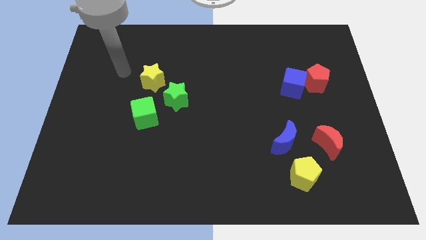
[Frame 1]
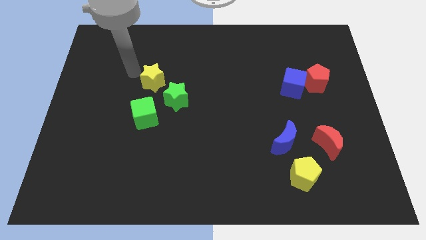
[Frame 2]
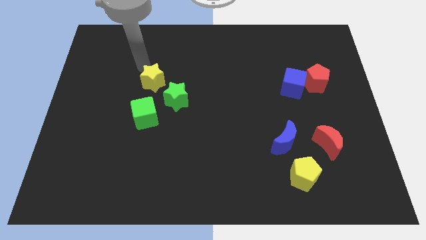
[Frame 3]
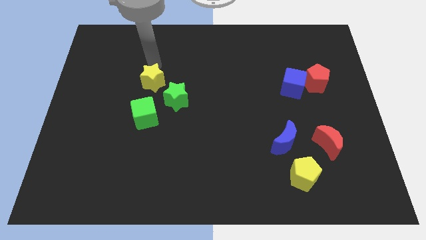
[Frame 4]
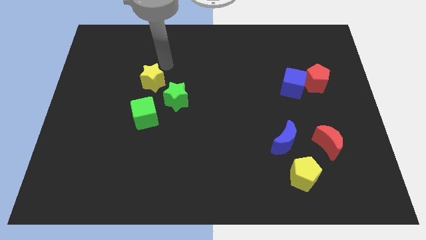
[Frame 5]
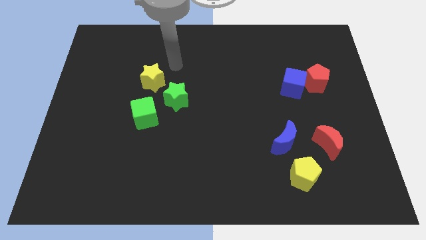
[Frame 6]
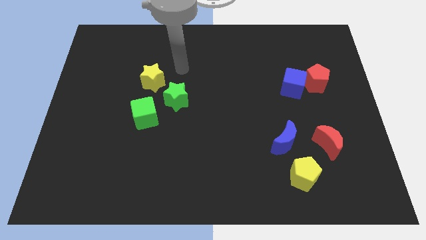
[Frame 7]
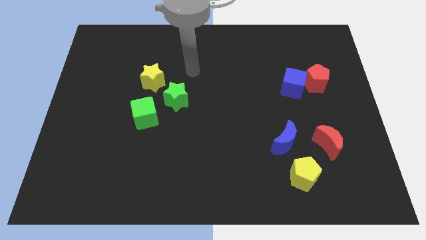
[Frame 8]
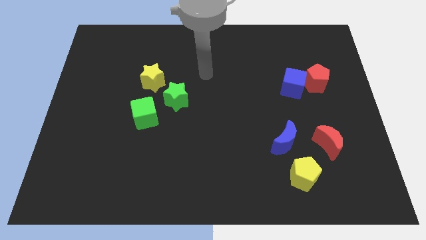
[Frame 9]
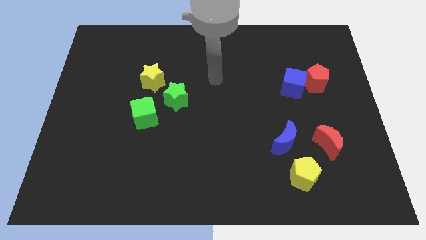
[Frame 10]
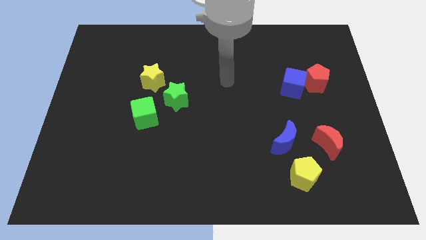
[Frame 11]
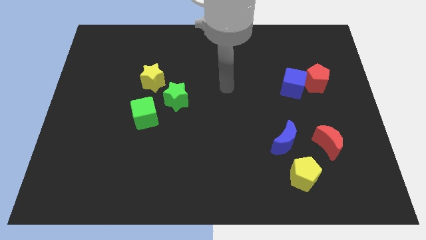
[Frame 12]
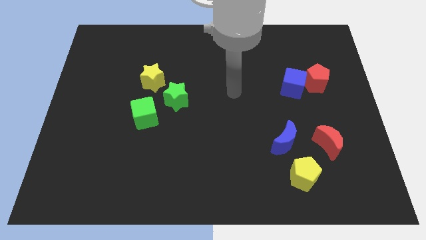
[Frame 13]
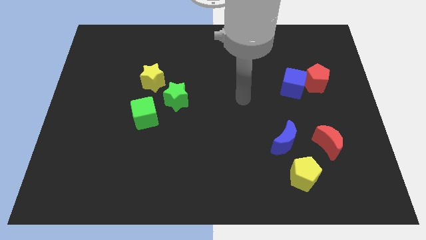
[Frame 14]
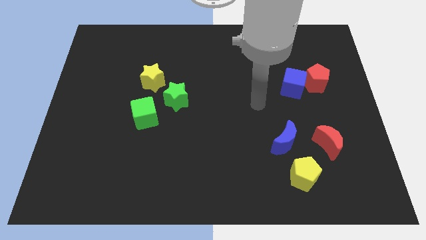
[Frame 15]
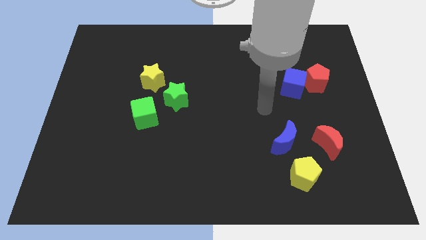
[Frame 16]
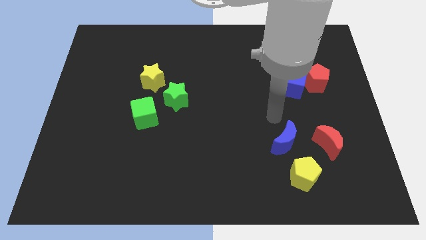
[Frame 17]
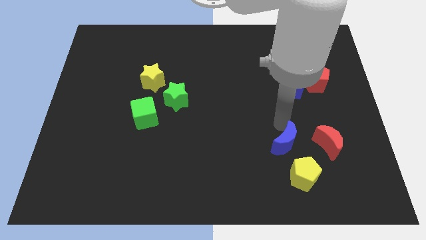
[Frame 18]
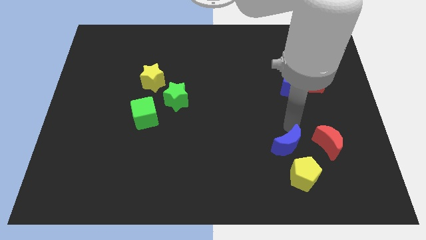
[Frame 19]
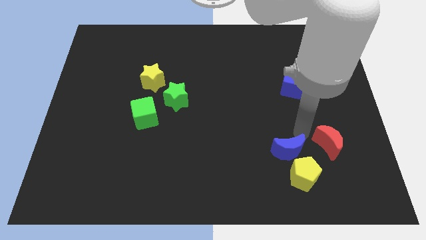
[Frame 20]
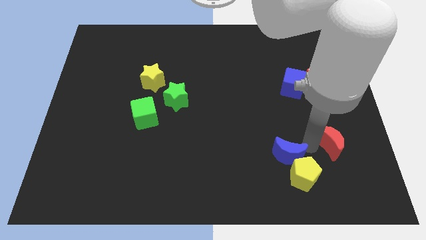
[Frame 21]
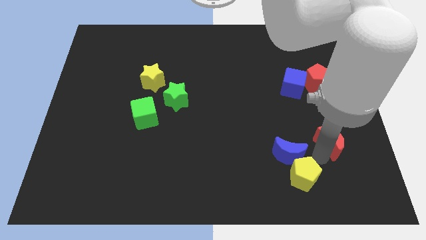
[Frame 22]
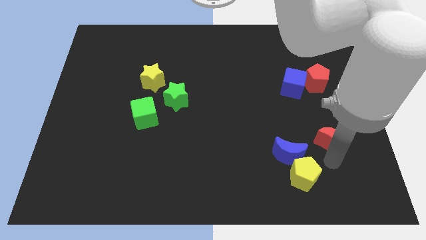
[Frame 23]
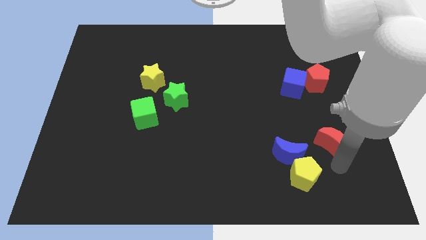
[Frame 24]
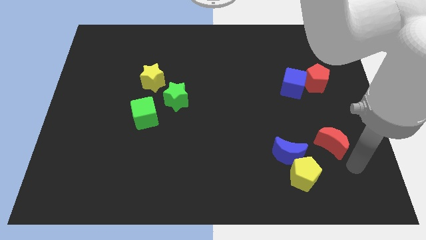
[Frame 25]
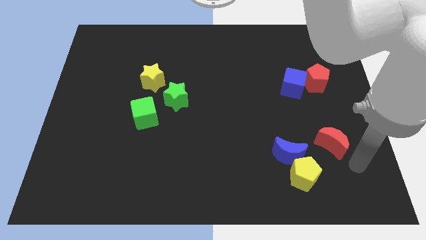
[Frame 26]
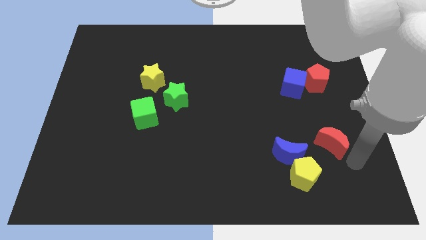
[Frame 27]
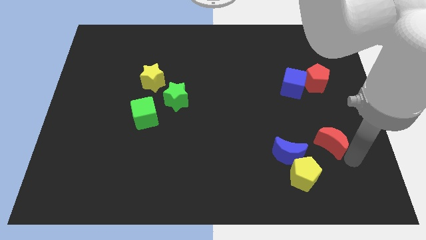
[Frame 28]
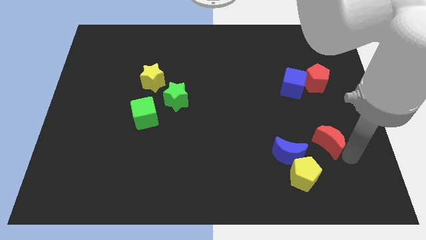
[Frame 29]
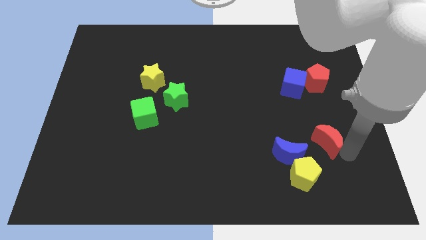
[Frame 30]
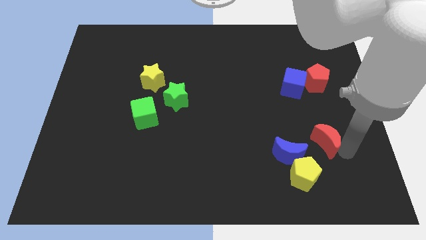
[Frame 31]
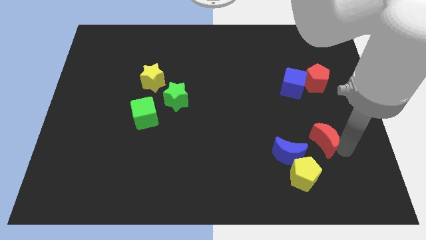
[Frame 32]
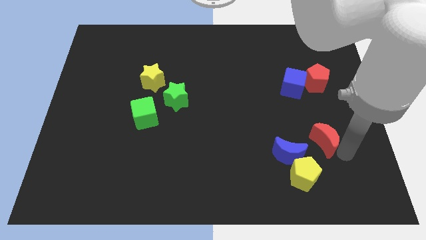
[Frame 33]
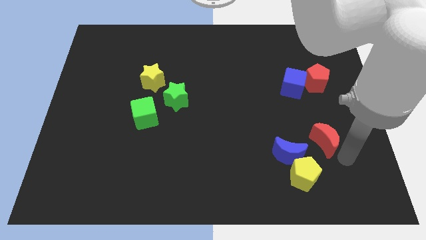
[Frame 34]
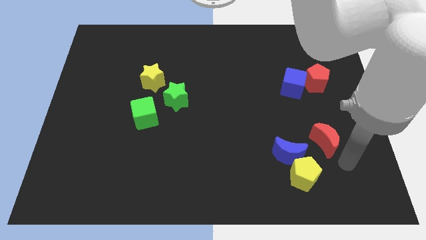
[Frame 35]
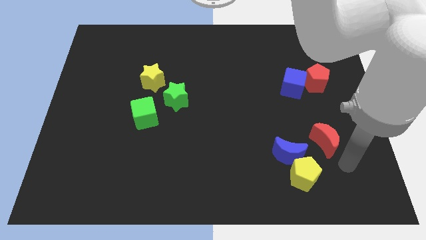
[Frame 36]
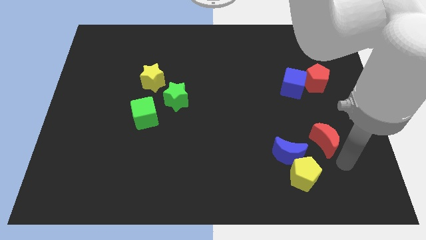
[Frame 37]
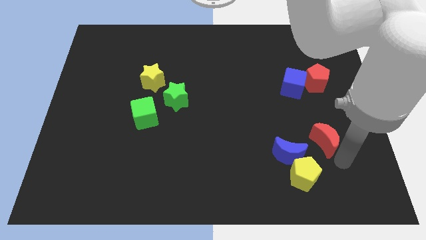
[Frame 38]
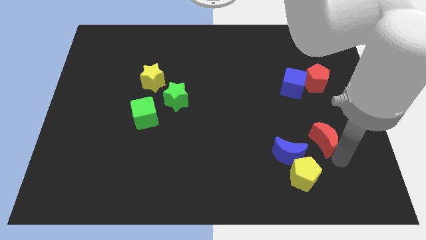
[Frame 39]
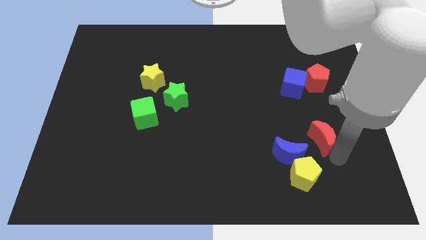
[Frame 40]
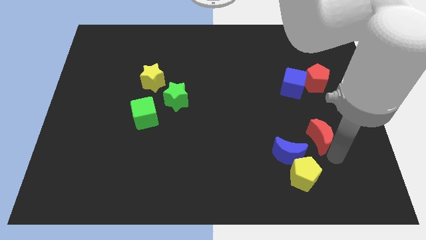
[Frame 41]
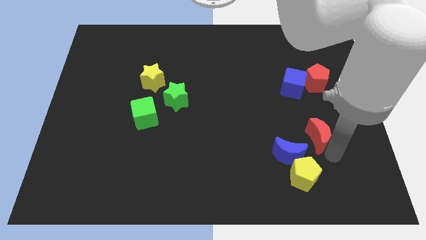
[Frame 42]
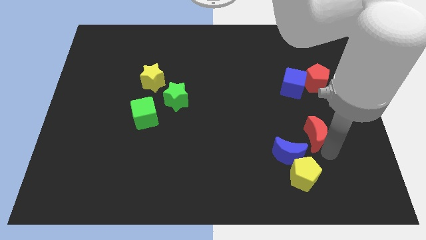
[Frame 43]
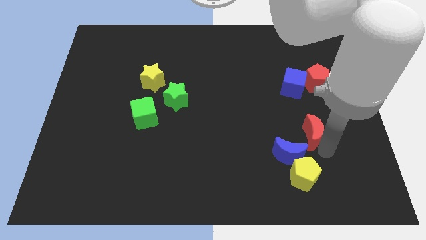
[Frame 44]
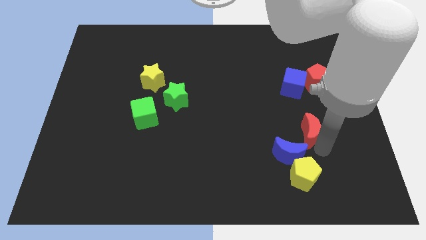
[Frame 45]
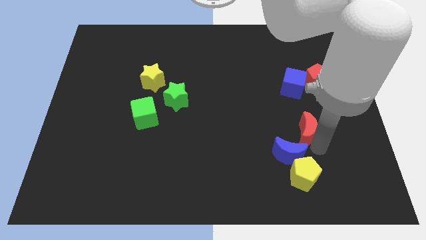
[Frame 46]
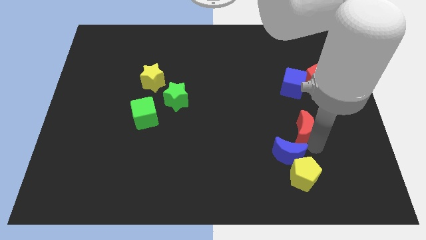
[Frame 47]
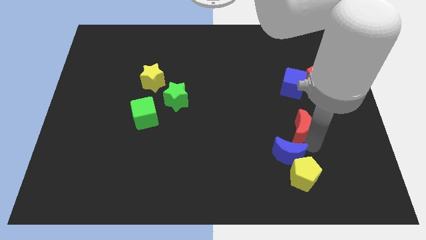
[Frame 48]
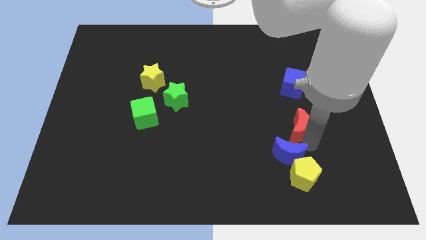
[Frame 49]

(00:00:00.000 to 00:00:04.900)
move the red moon upwards and to the left diagonally a little bit

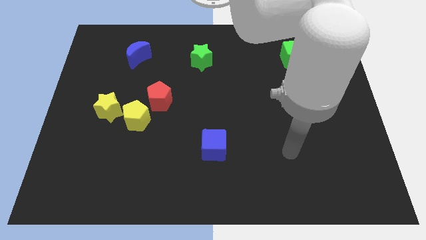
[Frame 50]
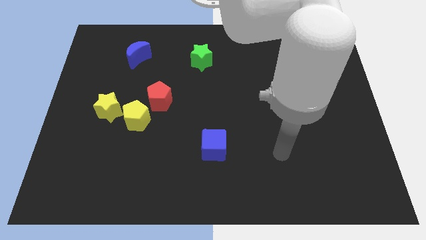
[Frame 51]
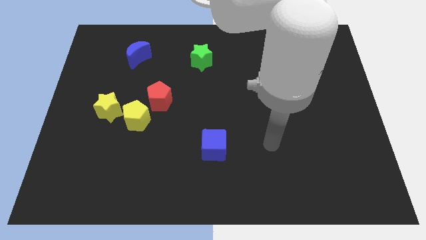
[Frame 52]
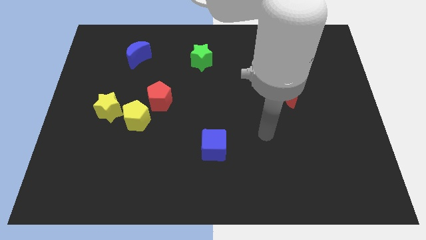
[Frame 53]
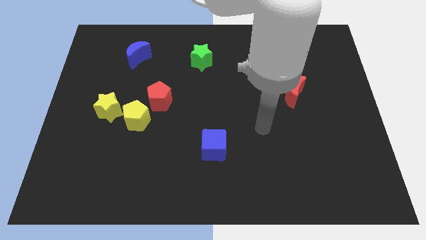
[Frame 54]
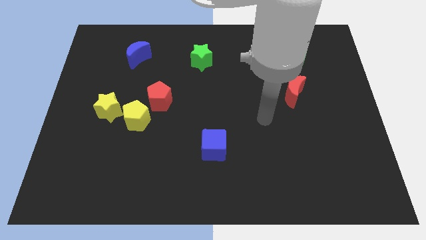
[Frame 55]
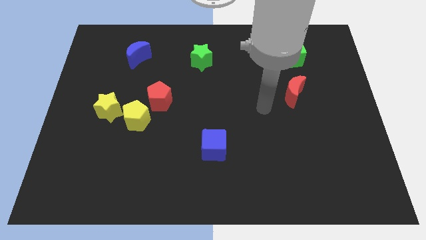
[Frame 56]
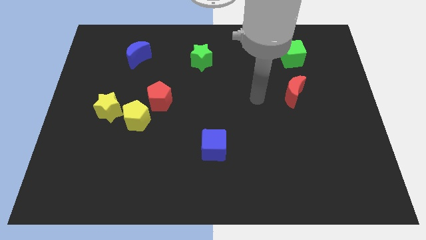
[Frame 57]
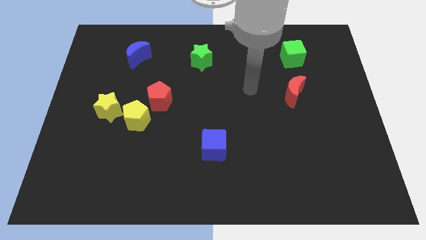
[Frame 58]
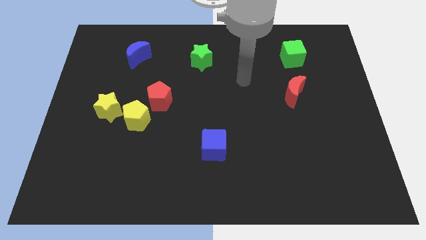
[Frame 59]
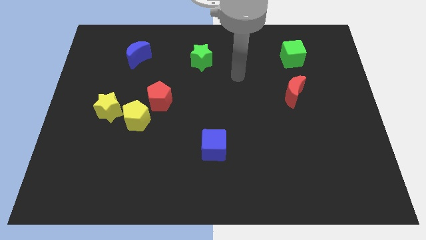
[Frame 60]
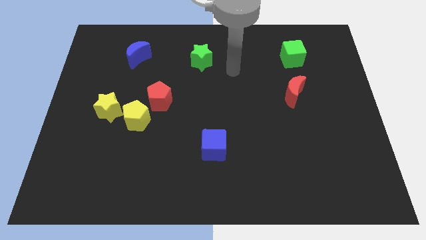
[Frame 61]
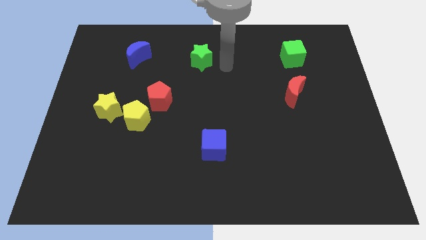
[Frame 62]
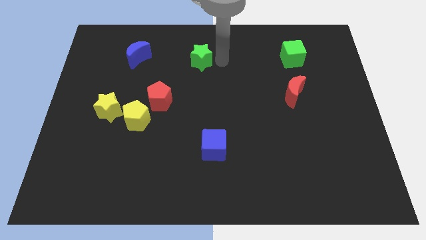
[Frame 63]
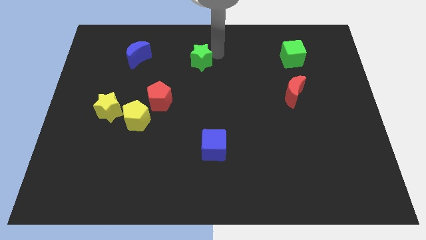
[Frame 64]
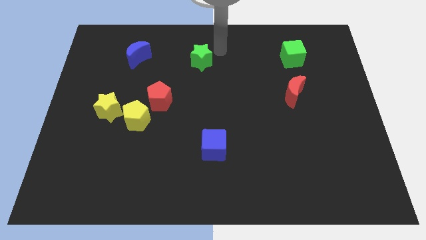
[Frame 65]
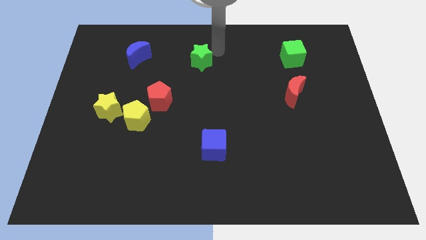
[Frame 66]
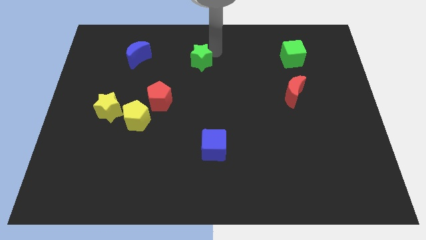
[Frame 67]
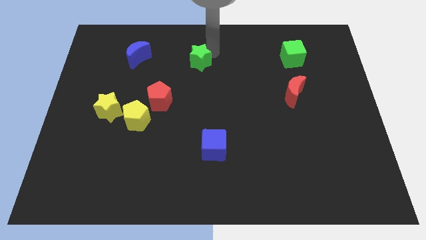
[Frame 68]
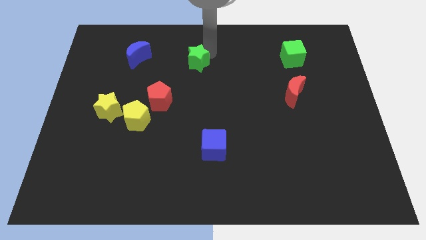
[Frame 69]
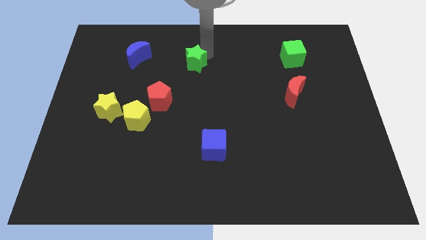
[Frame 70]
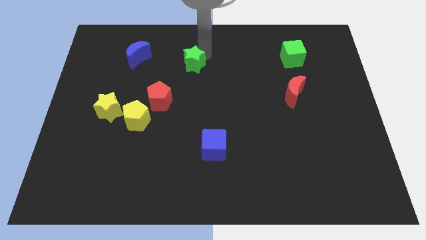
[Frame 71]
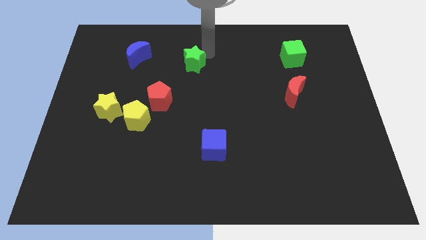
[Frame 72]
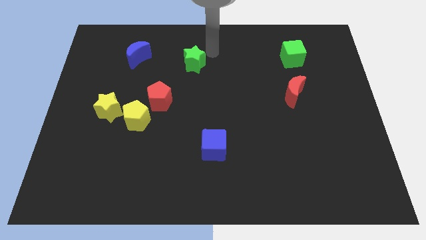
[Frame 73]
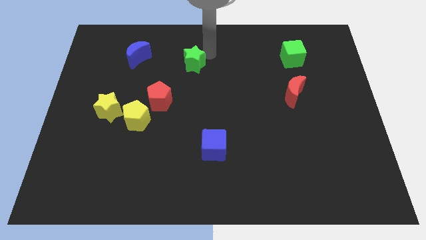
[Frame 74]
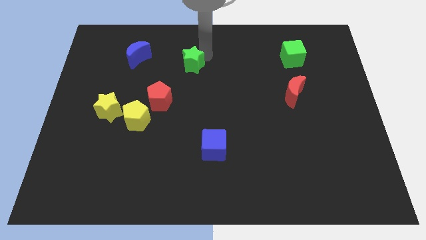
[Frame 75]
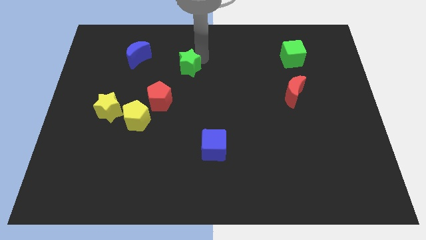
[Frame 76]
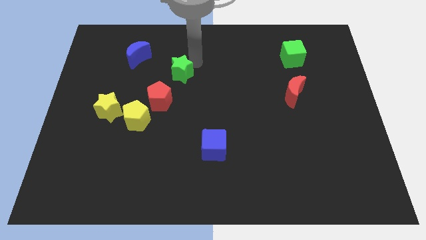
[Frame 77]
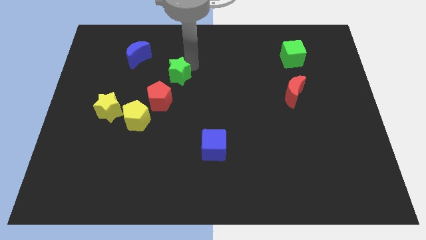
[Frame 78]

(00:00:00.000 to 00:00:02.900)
move the green star down and left a little bit

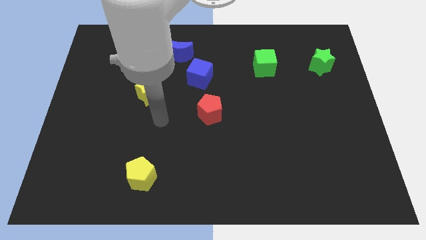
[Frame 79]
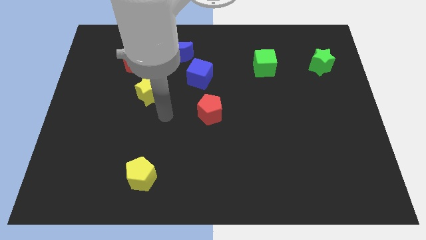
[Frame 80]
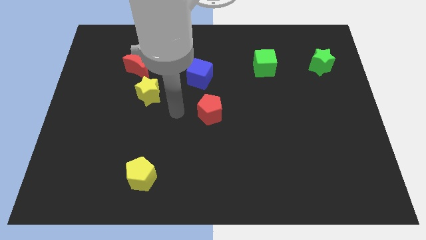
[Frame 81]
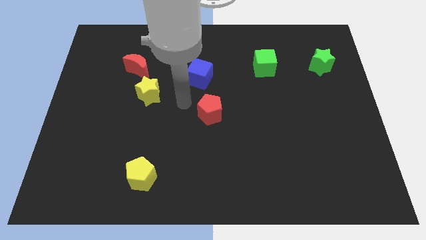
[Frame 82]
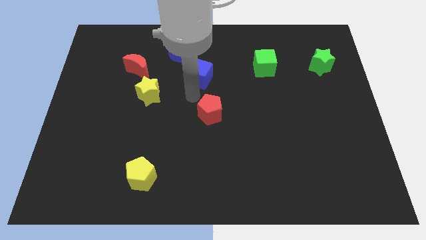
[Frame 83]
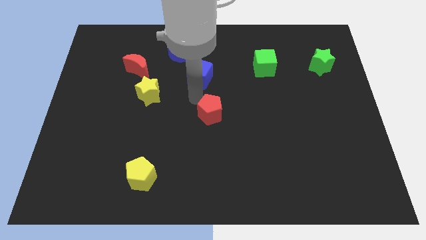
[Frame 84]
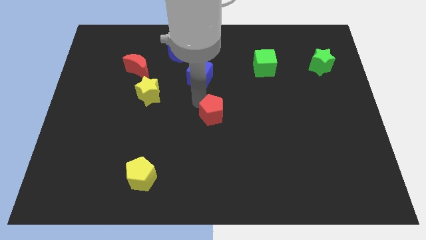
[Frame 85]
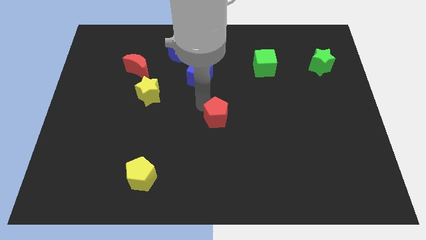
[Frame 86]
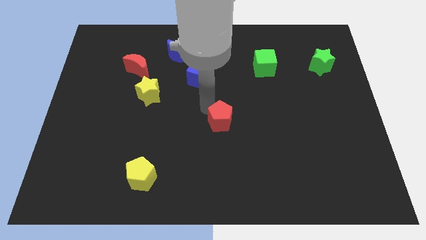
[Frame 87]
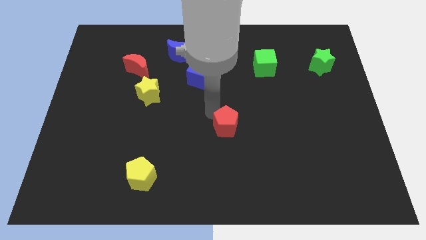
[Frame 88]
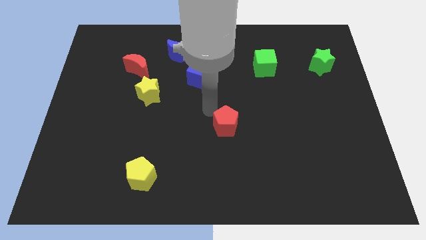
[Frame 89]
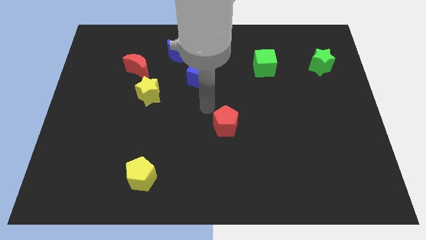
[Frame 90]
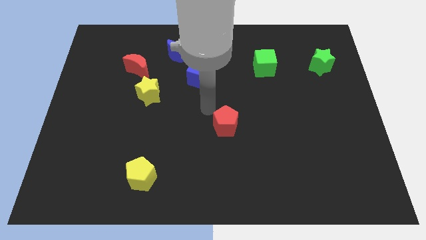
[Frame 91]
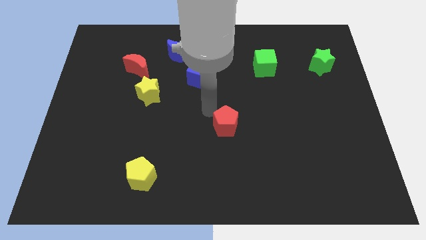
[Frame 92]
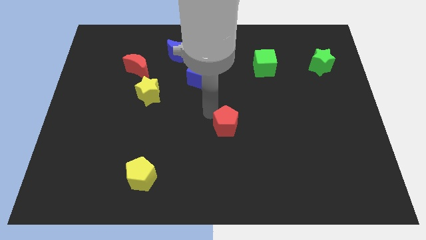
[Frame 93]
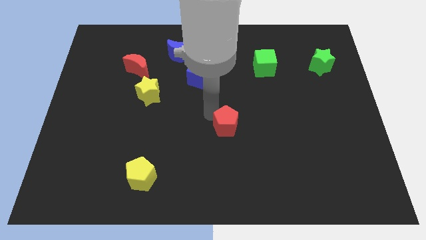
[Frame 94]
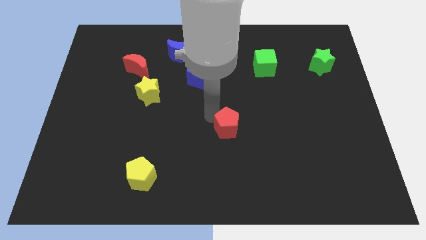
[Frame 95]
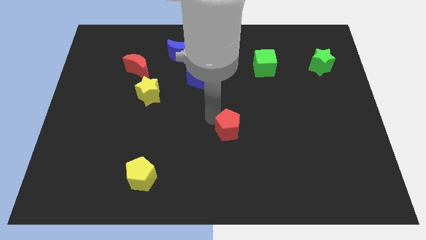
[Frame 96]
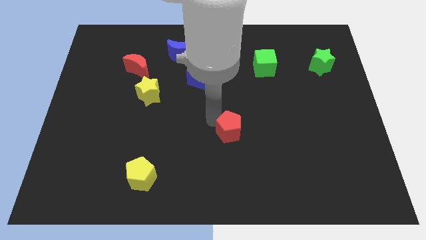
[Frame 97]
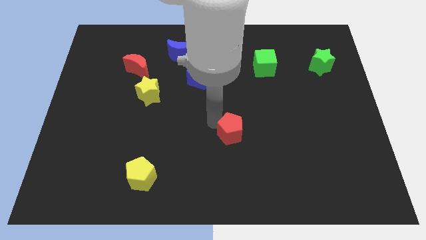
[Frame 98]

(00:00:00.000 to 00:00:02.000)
slightly move the red pentagon diagonally down and right
